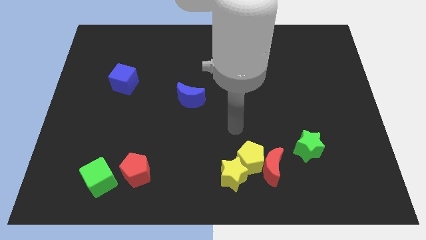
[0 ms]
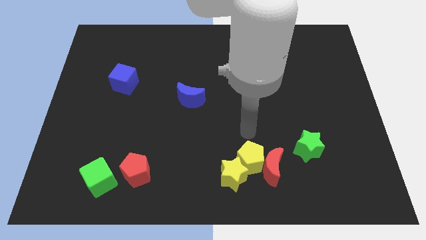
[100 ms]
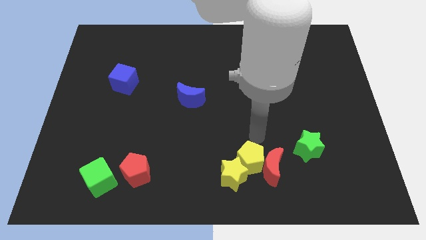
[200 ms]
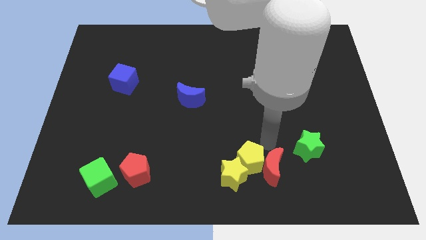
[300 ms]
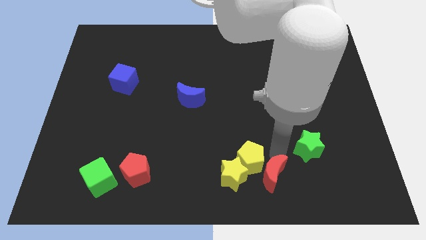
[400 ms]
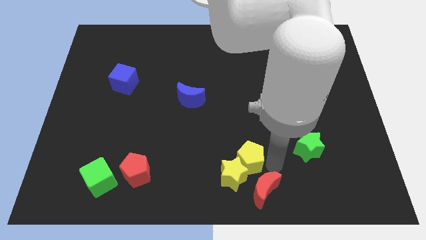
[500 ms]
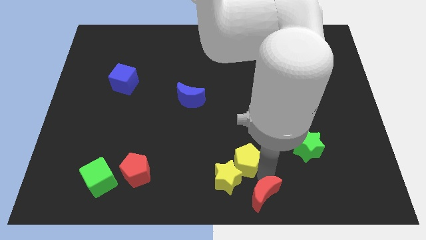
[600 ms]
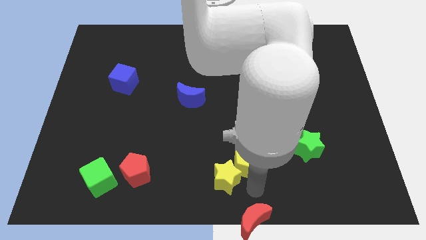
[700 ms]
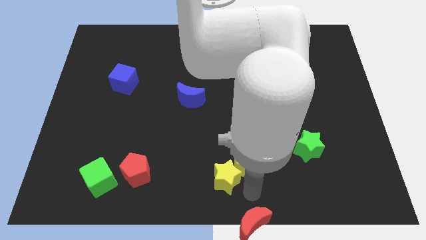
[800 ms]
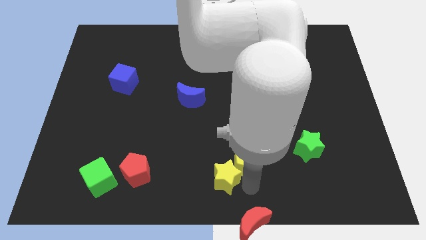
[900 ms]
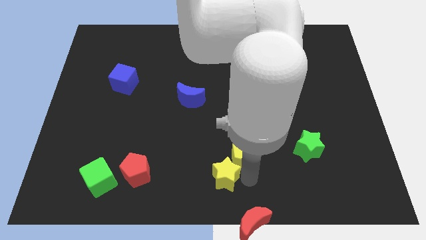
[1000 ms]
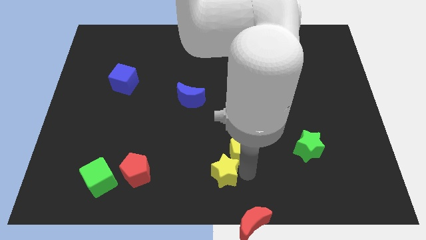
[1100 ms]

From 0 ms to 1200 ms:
separate the yellow pentagon from the red moon and yellow star

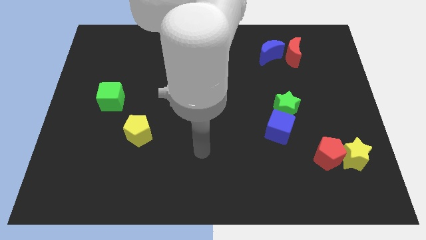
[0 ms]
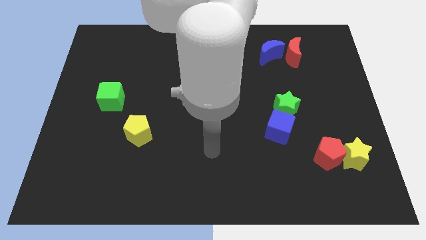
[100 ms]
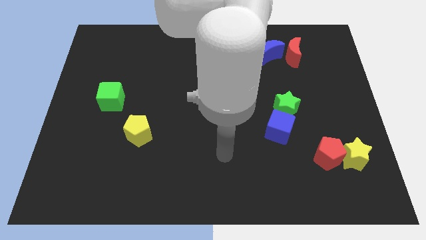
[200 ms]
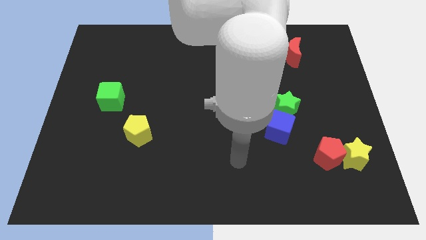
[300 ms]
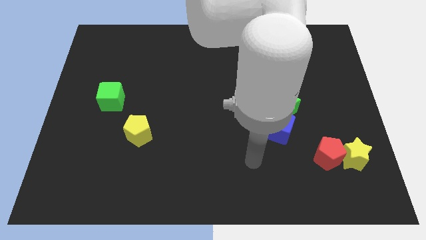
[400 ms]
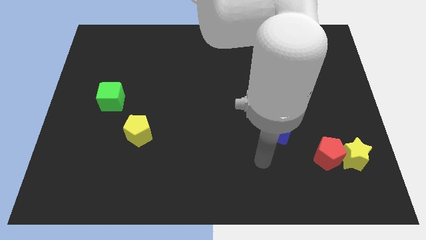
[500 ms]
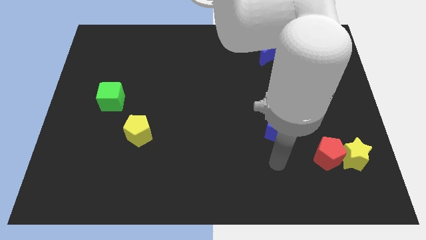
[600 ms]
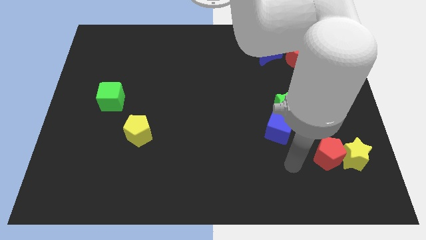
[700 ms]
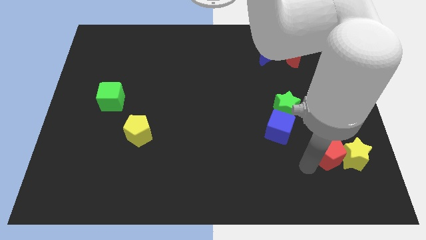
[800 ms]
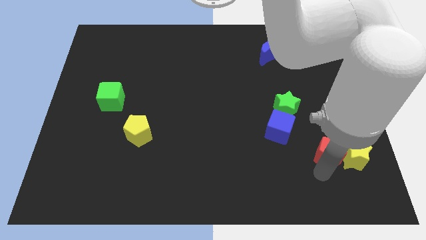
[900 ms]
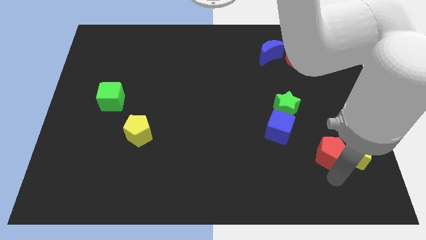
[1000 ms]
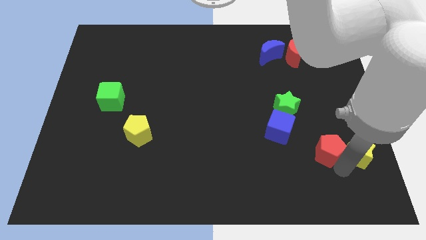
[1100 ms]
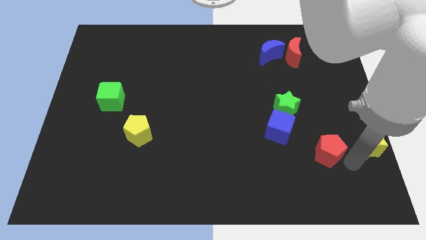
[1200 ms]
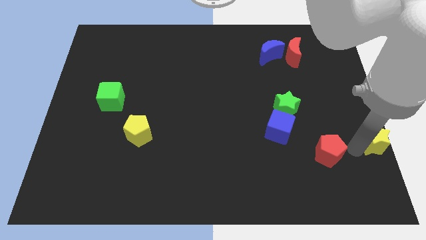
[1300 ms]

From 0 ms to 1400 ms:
move the red pentagon away from the yellow star

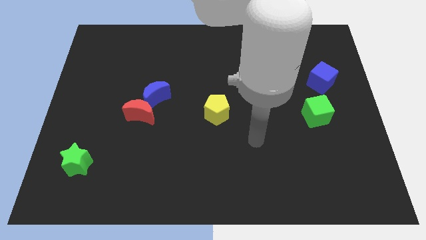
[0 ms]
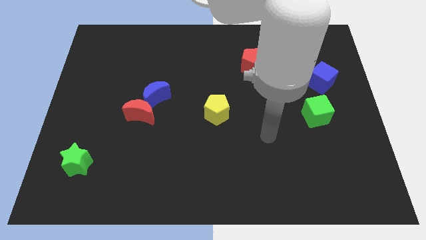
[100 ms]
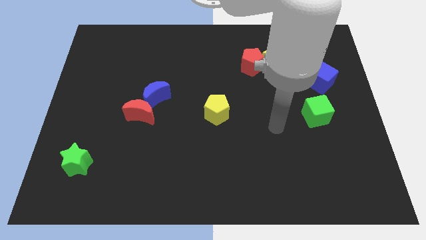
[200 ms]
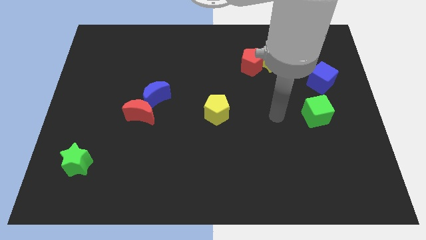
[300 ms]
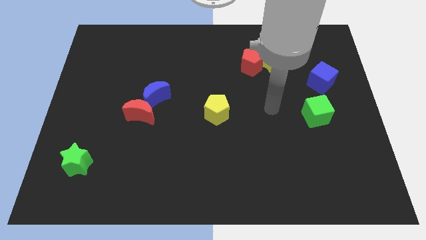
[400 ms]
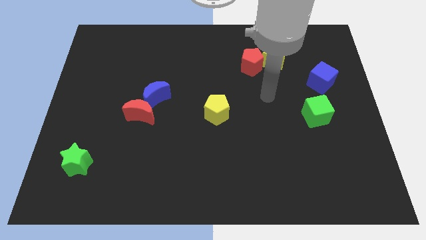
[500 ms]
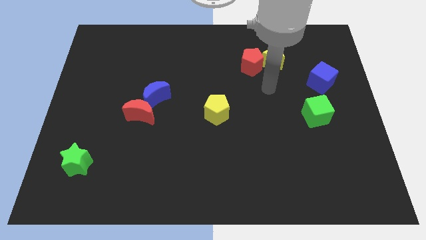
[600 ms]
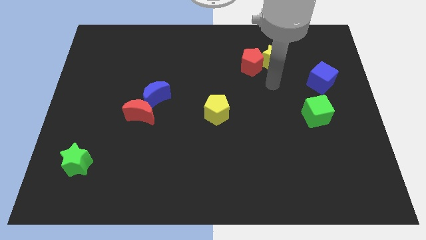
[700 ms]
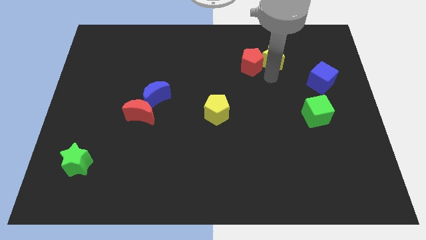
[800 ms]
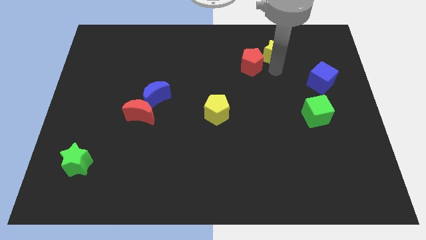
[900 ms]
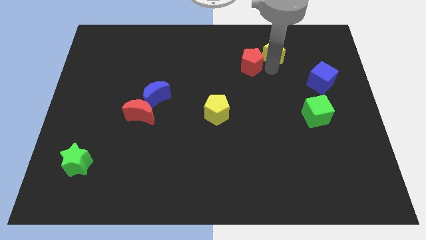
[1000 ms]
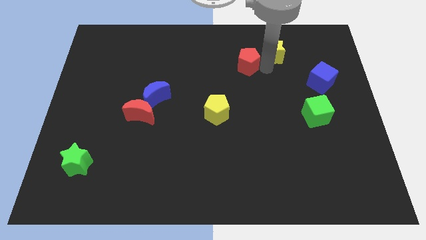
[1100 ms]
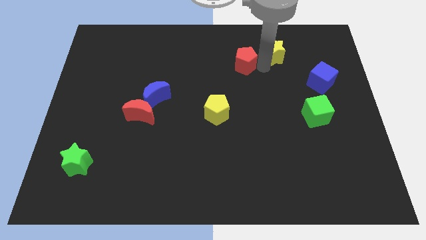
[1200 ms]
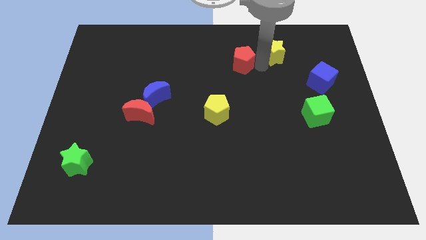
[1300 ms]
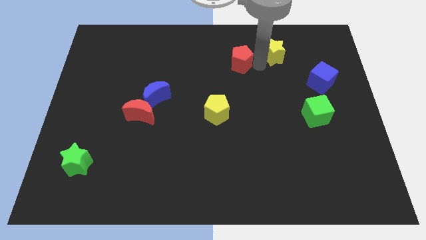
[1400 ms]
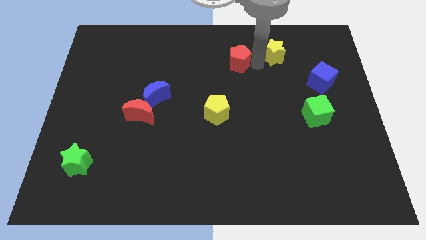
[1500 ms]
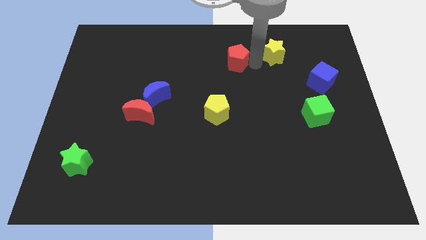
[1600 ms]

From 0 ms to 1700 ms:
separate the red pentagon from the yellow star

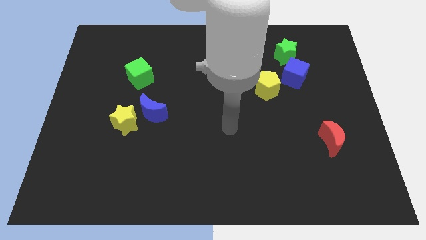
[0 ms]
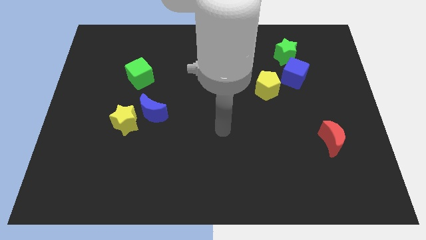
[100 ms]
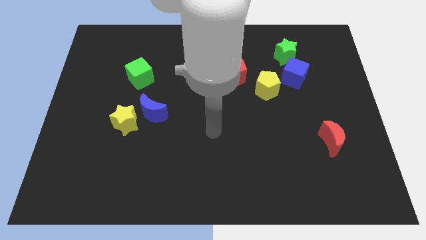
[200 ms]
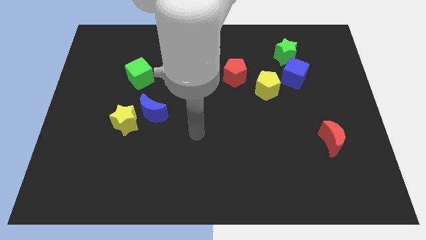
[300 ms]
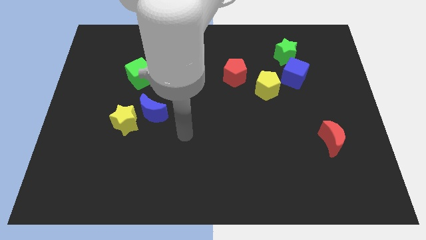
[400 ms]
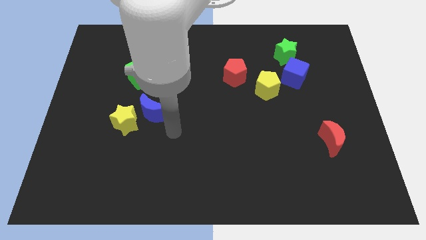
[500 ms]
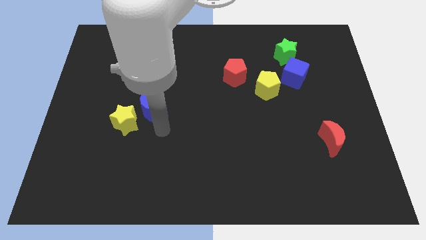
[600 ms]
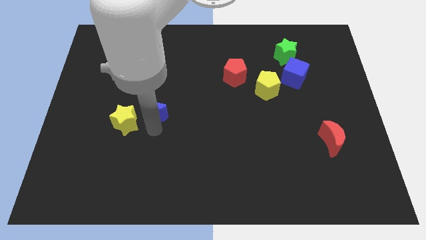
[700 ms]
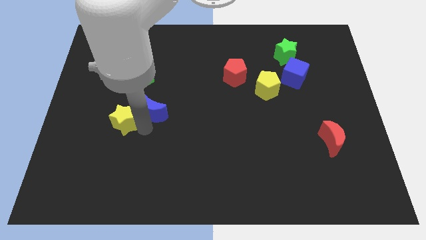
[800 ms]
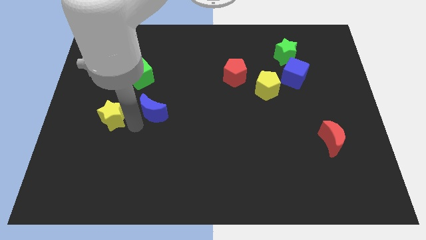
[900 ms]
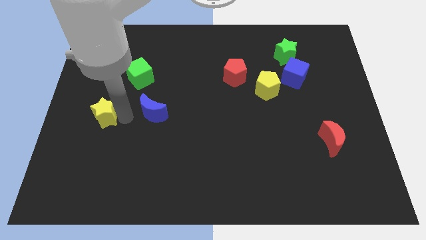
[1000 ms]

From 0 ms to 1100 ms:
pull the blue moon apart from the yellow star

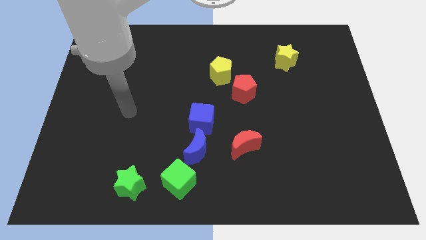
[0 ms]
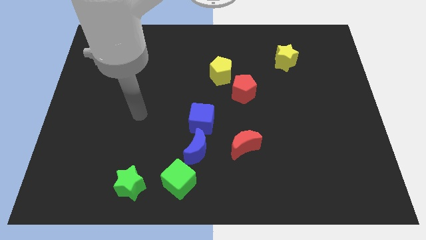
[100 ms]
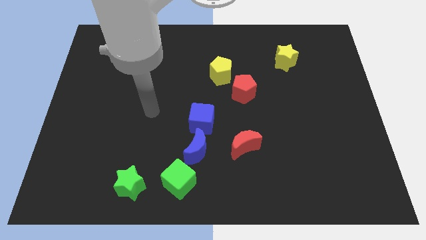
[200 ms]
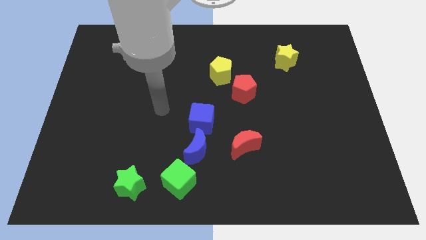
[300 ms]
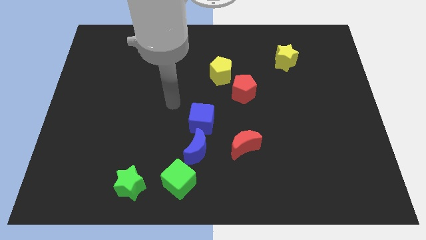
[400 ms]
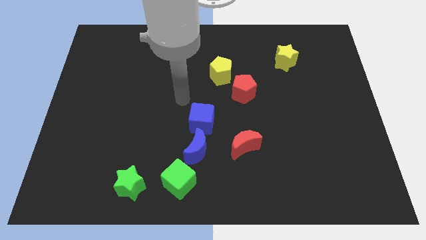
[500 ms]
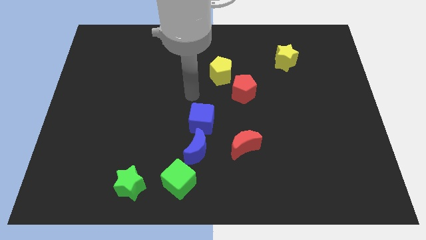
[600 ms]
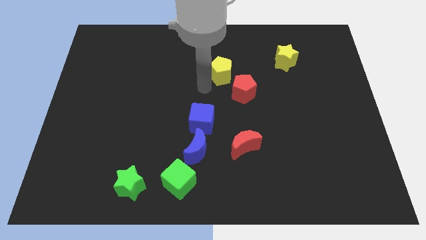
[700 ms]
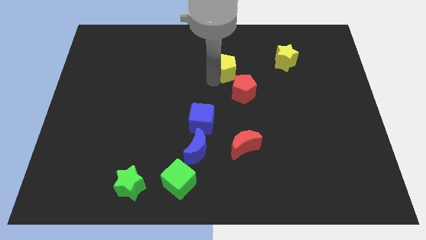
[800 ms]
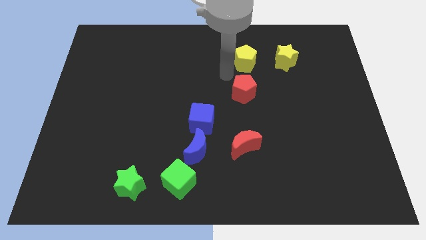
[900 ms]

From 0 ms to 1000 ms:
pull the red pentagon apart from the yellow pentagon

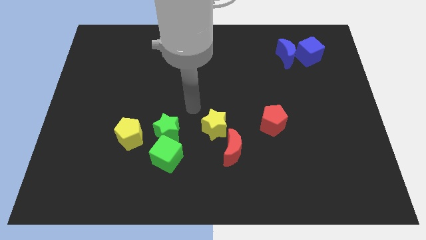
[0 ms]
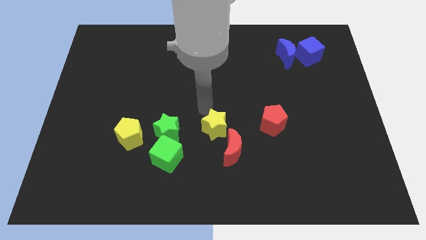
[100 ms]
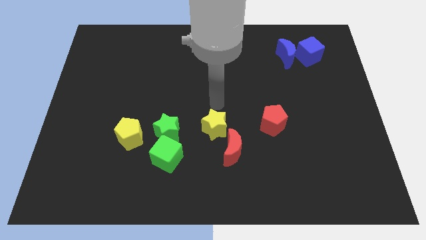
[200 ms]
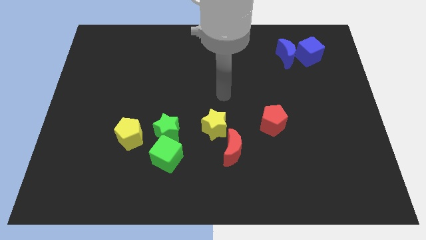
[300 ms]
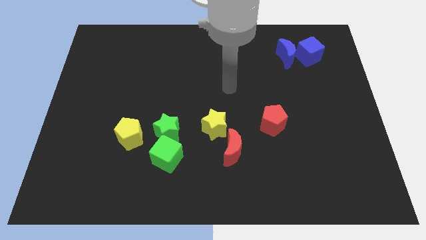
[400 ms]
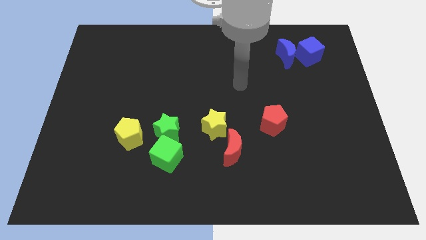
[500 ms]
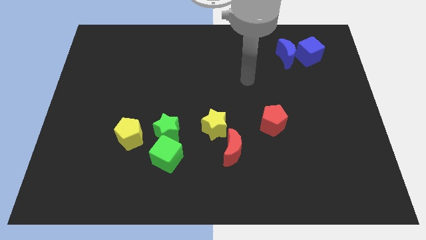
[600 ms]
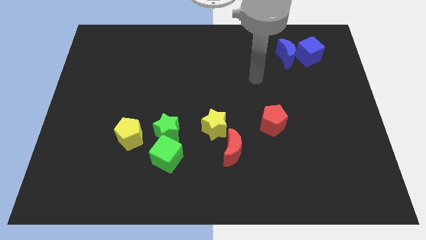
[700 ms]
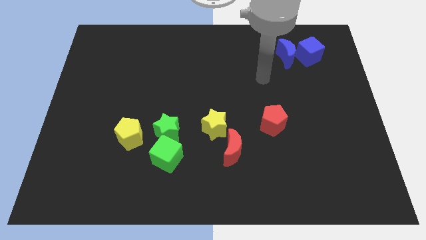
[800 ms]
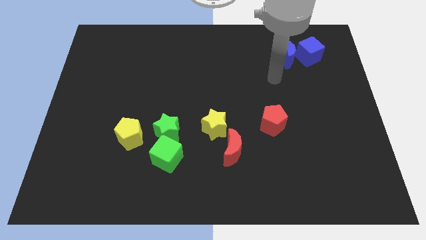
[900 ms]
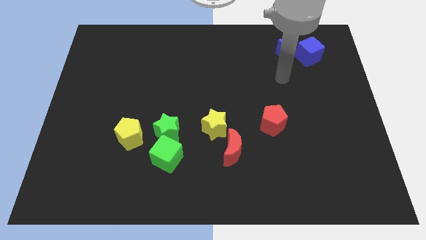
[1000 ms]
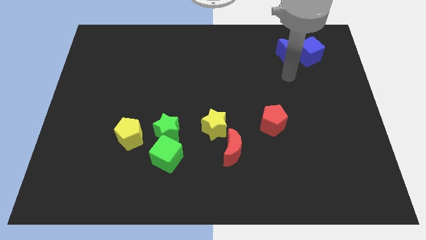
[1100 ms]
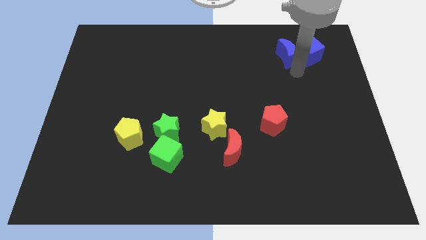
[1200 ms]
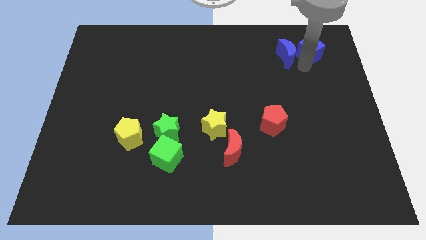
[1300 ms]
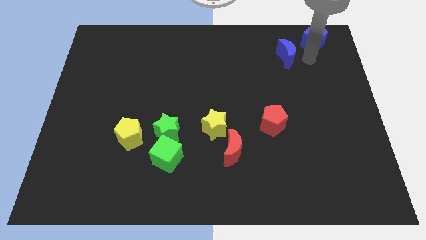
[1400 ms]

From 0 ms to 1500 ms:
move the blue moon away from the blue cube

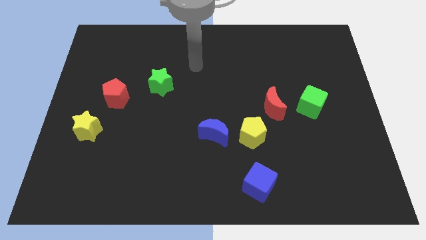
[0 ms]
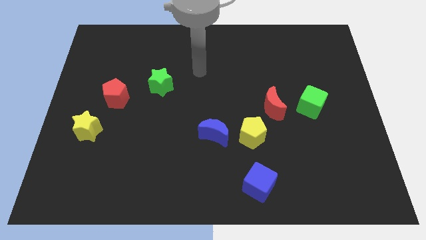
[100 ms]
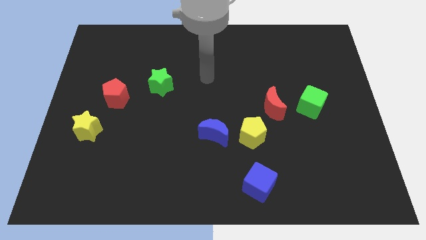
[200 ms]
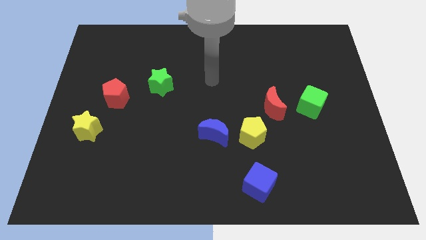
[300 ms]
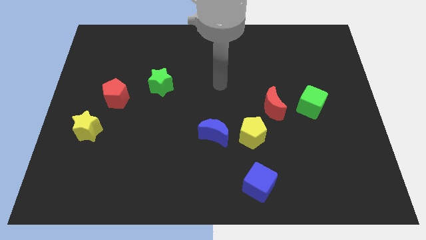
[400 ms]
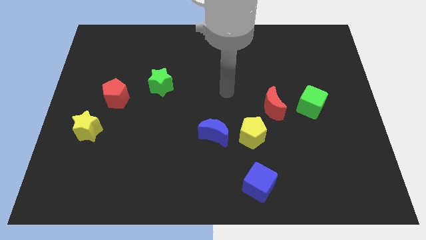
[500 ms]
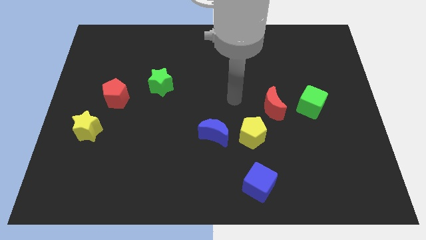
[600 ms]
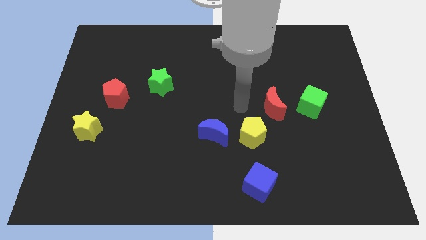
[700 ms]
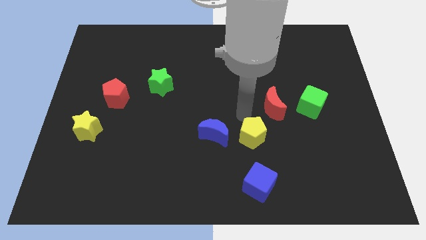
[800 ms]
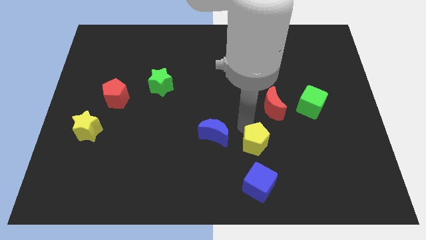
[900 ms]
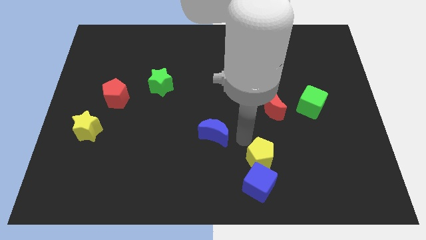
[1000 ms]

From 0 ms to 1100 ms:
separate the blue moon from the yellow pentagon

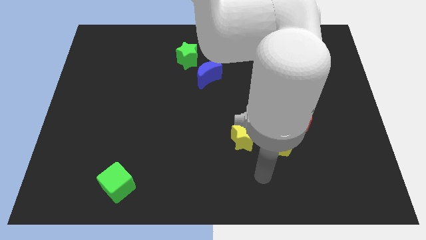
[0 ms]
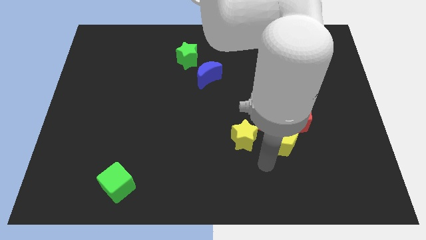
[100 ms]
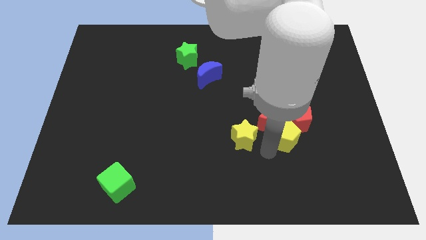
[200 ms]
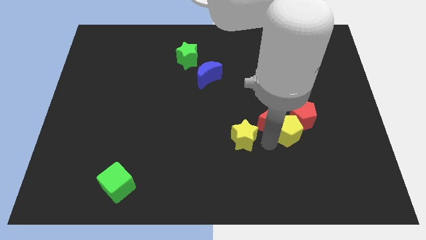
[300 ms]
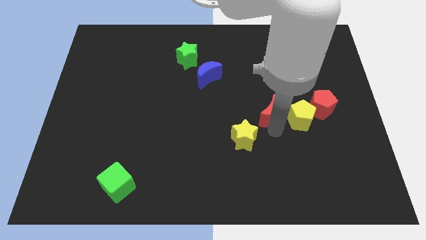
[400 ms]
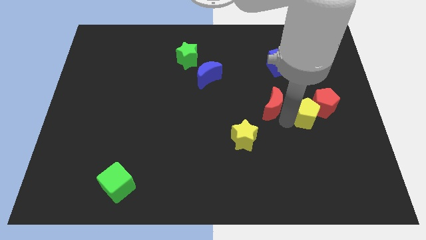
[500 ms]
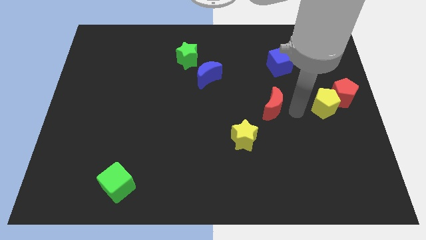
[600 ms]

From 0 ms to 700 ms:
pull the red pentagon apart from the red moon and yellow pentagon
